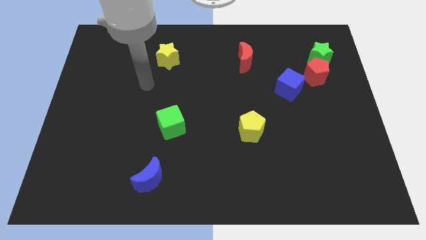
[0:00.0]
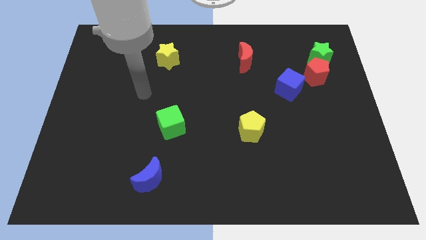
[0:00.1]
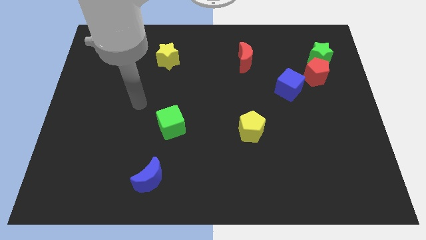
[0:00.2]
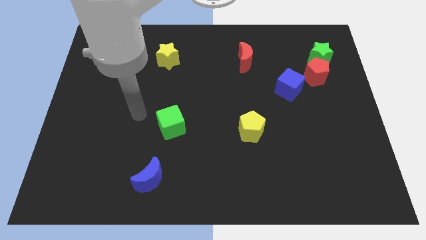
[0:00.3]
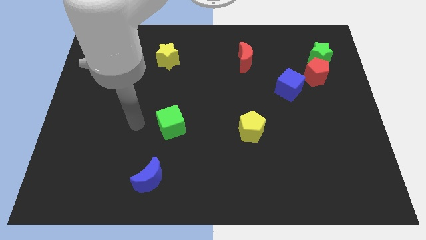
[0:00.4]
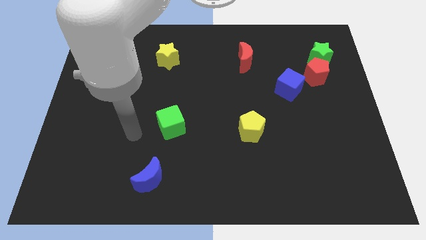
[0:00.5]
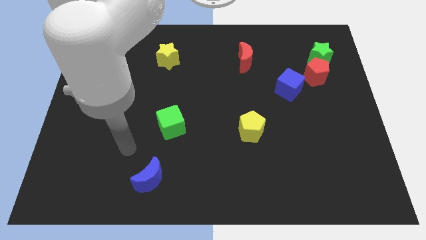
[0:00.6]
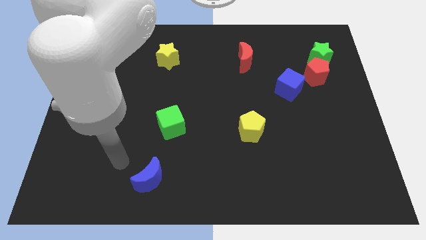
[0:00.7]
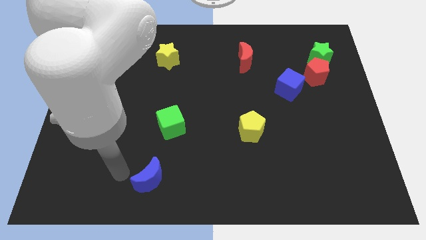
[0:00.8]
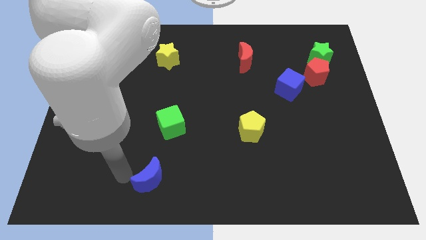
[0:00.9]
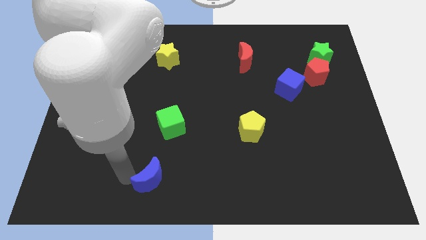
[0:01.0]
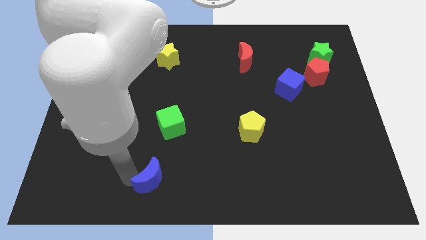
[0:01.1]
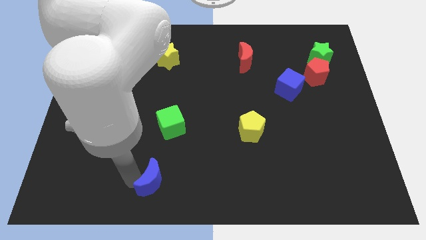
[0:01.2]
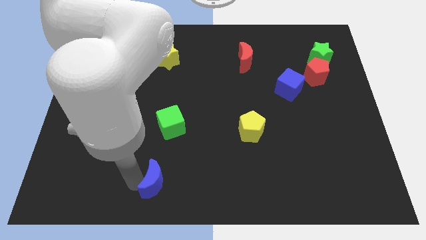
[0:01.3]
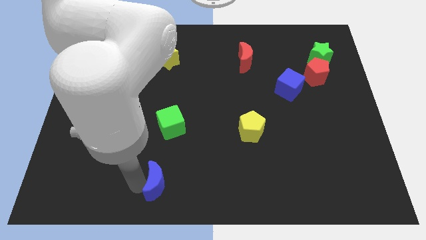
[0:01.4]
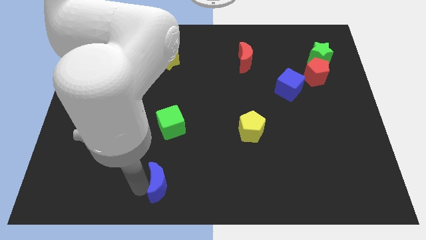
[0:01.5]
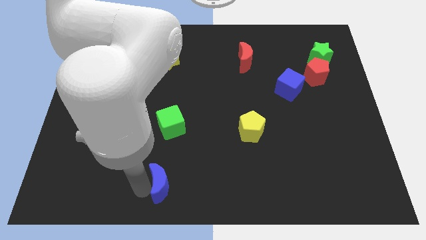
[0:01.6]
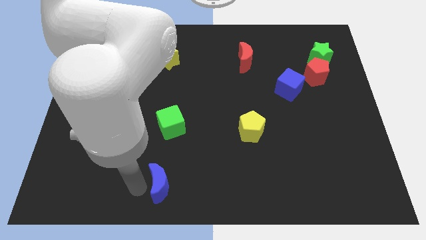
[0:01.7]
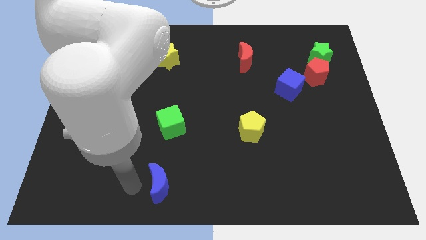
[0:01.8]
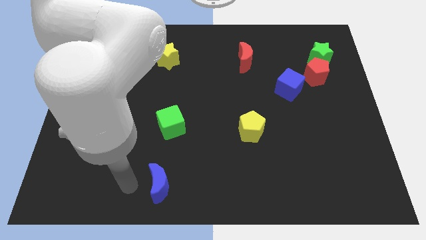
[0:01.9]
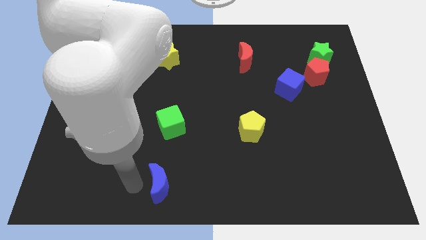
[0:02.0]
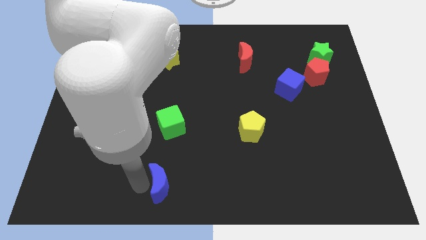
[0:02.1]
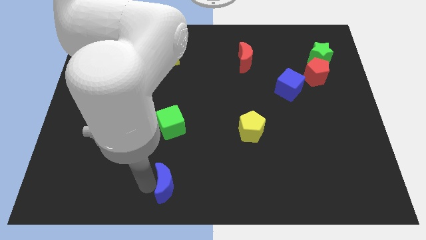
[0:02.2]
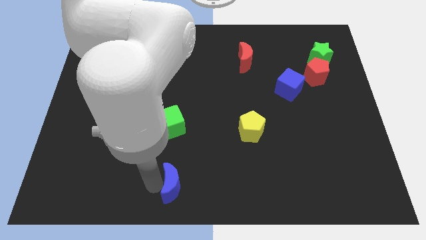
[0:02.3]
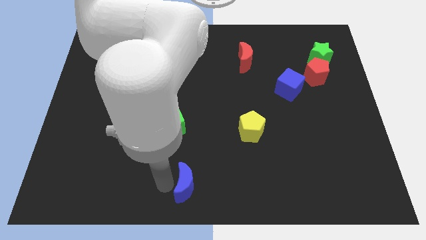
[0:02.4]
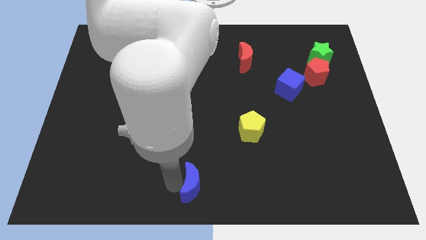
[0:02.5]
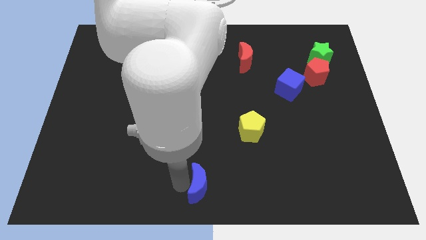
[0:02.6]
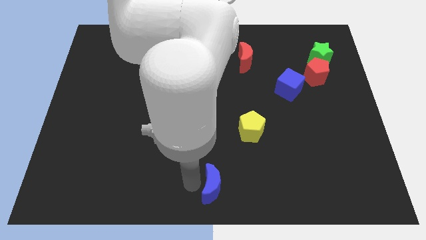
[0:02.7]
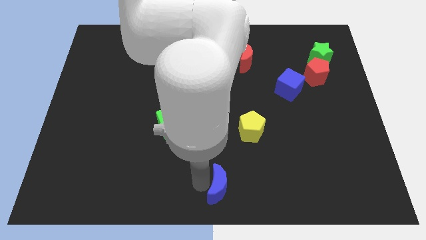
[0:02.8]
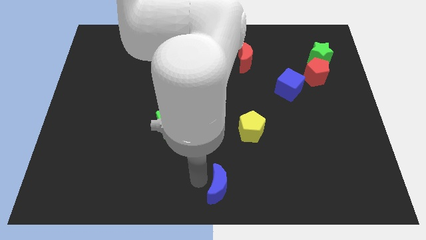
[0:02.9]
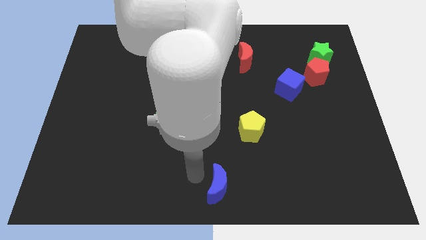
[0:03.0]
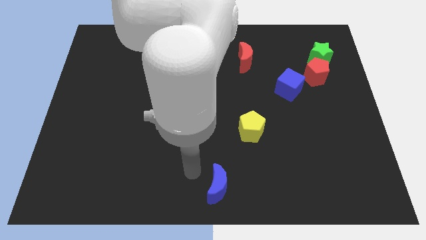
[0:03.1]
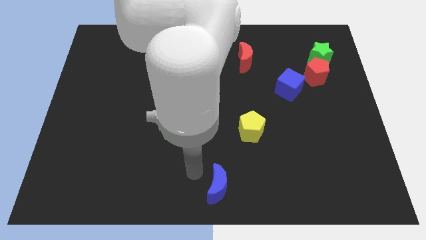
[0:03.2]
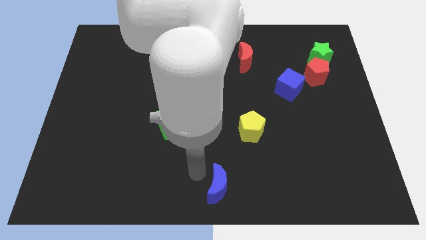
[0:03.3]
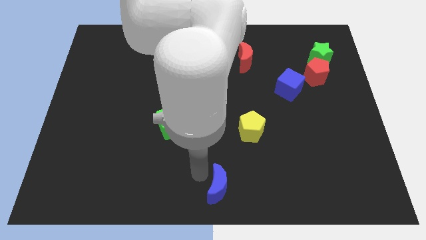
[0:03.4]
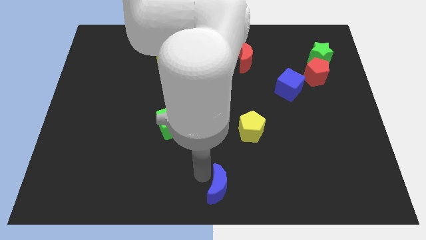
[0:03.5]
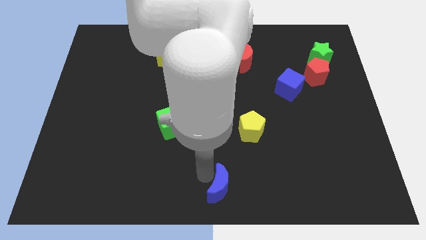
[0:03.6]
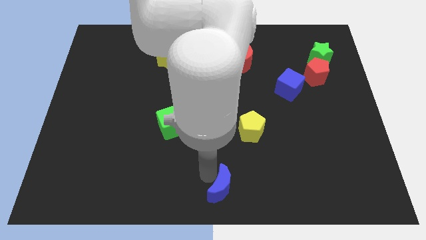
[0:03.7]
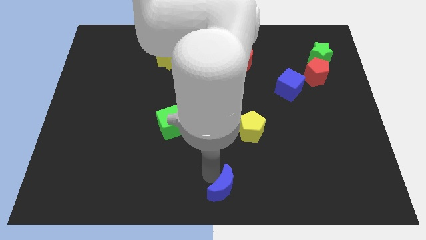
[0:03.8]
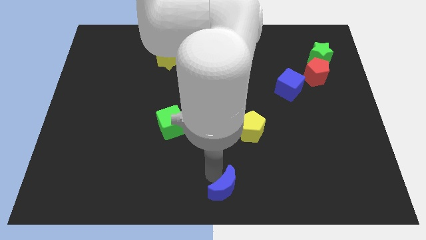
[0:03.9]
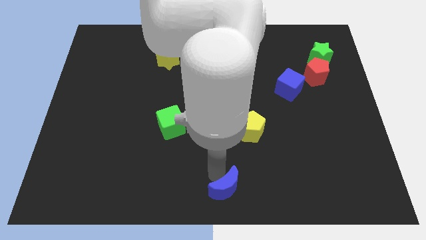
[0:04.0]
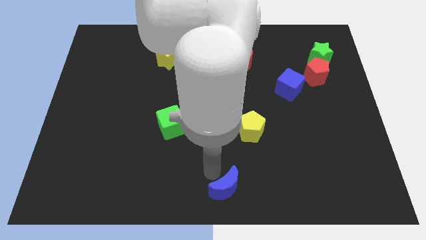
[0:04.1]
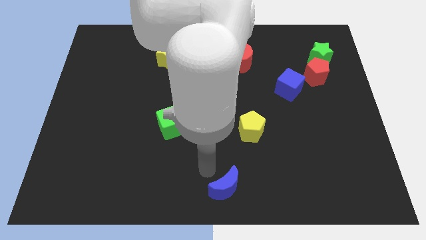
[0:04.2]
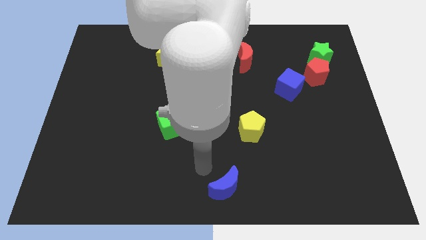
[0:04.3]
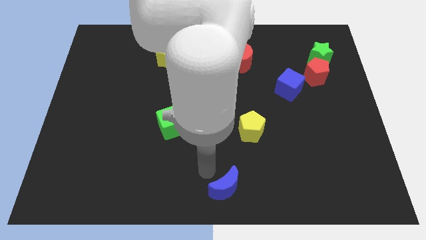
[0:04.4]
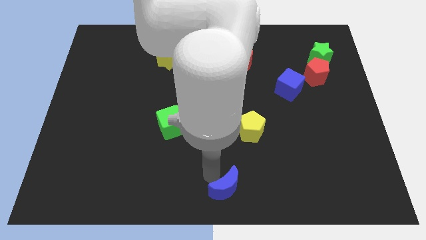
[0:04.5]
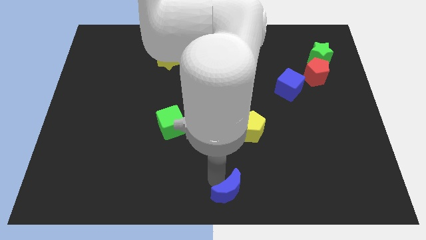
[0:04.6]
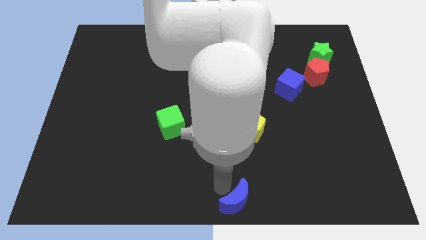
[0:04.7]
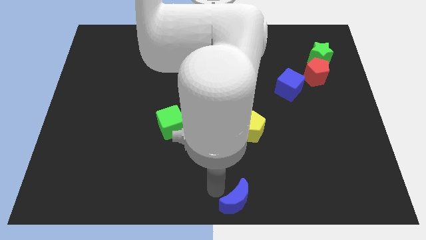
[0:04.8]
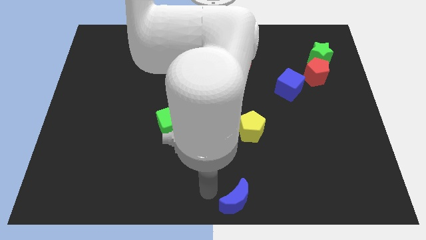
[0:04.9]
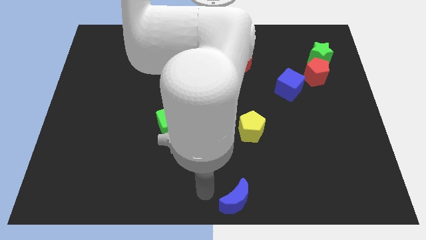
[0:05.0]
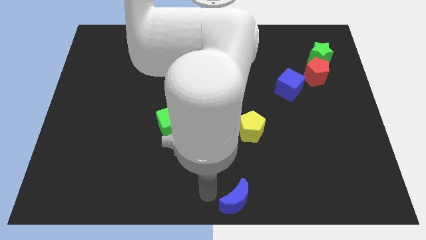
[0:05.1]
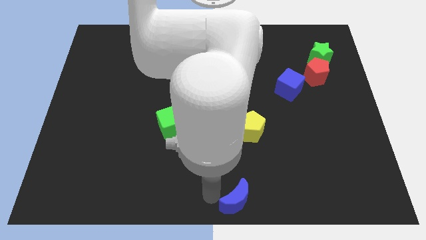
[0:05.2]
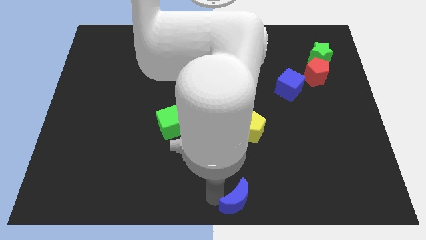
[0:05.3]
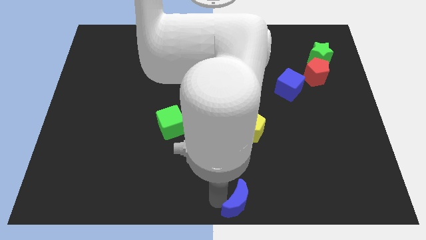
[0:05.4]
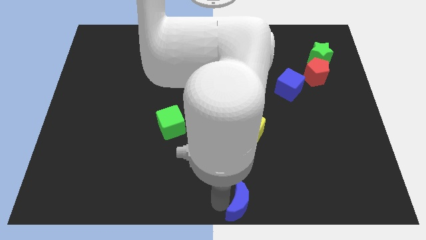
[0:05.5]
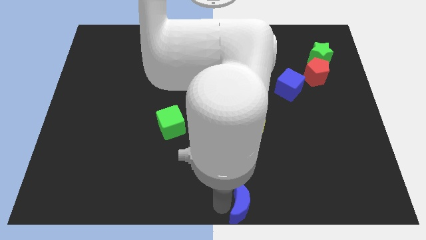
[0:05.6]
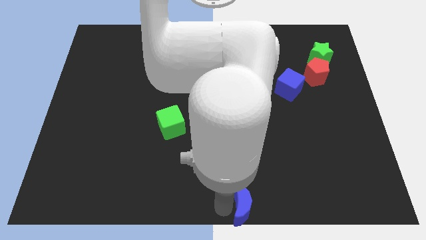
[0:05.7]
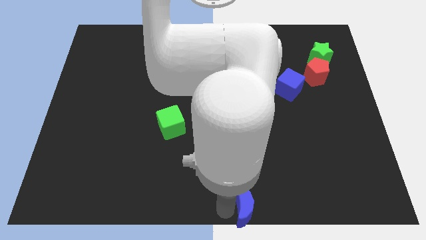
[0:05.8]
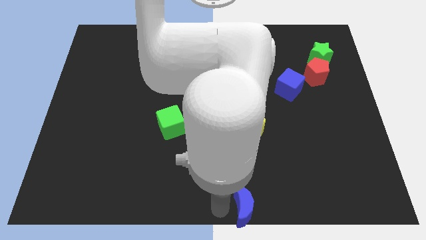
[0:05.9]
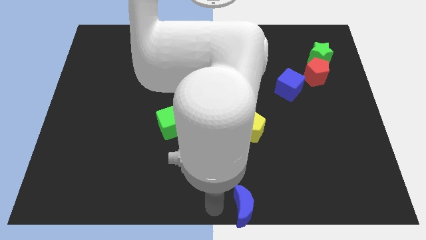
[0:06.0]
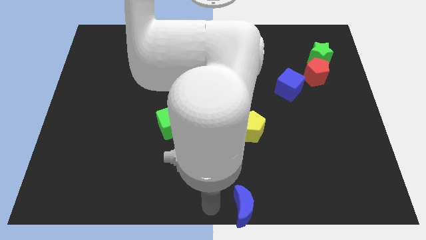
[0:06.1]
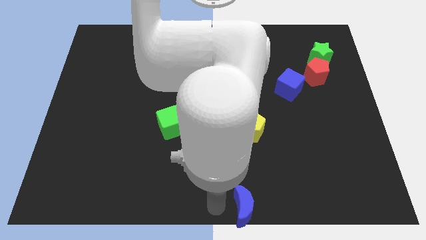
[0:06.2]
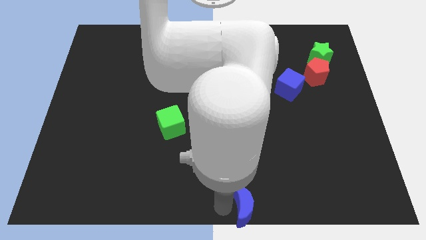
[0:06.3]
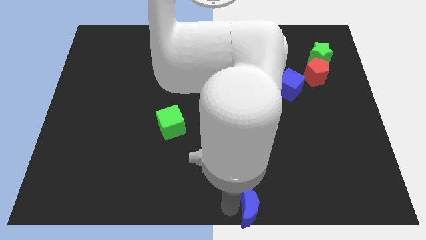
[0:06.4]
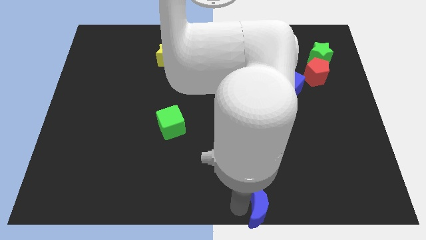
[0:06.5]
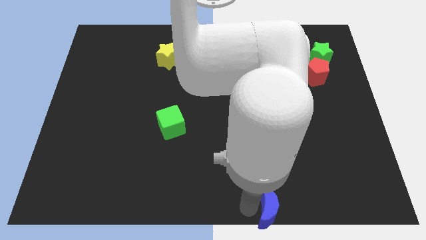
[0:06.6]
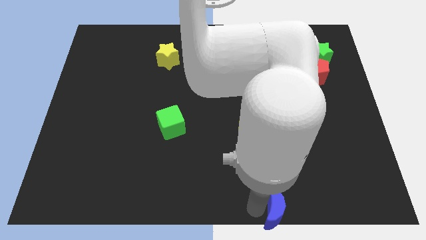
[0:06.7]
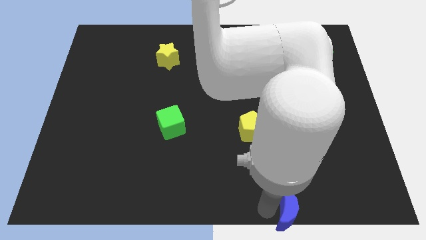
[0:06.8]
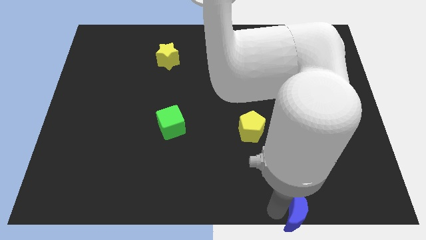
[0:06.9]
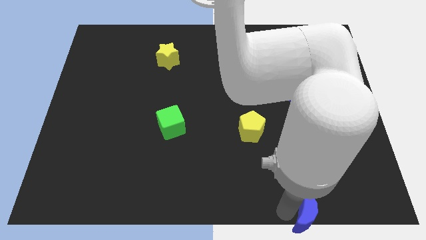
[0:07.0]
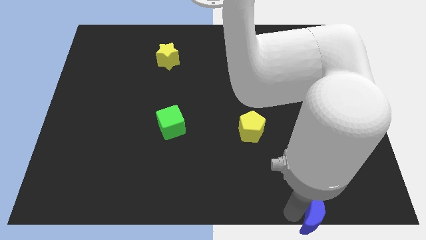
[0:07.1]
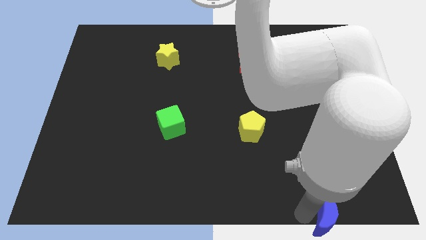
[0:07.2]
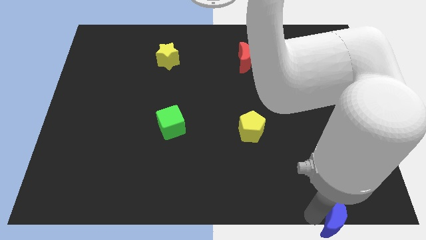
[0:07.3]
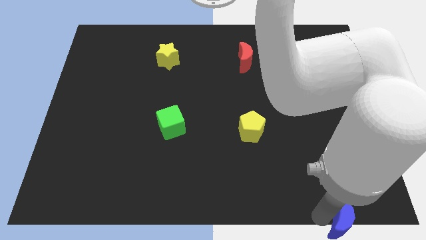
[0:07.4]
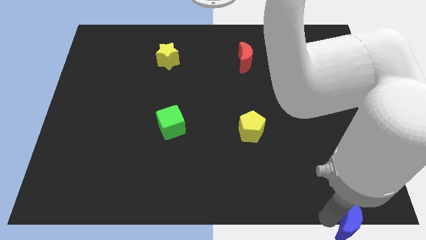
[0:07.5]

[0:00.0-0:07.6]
move the blue moon to the bottom right
